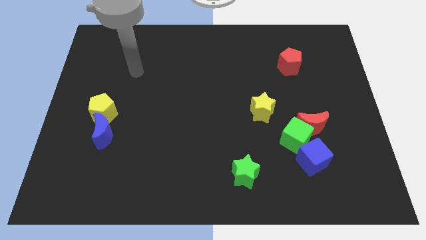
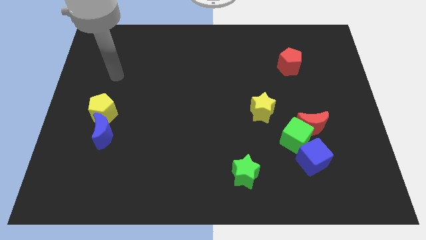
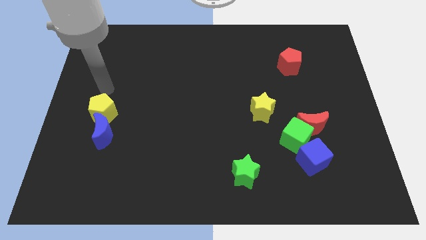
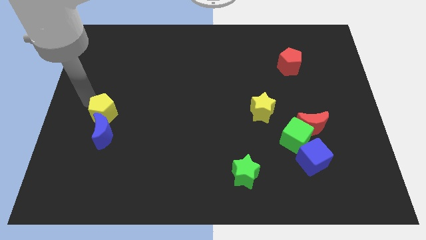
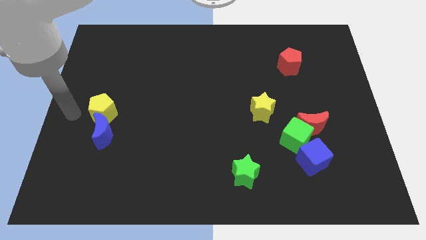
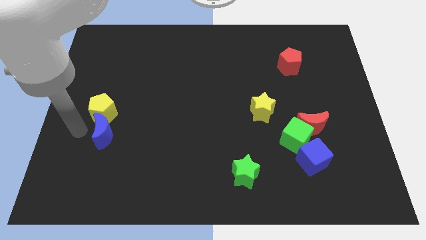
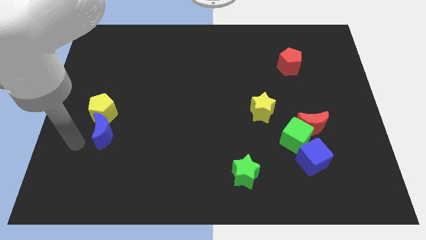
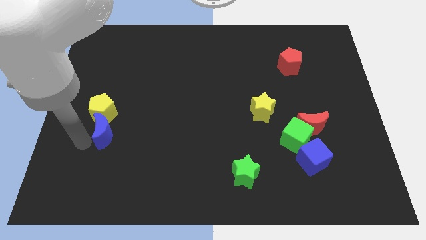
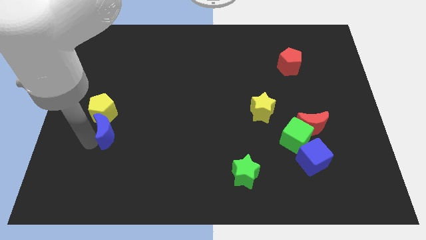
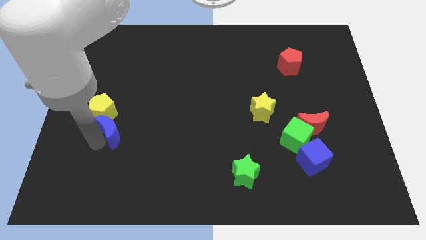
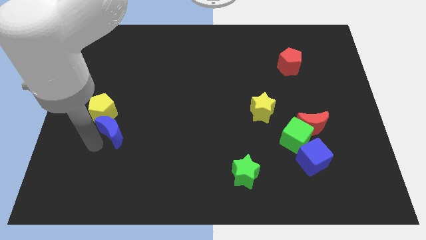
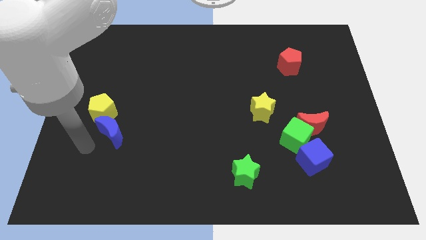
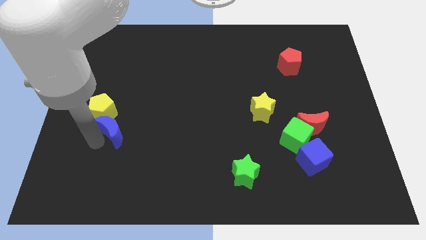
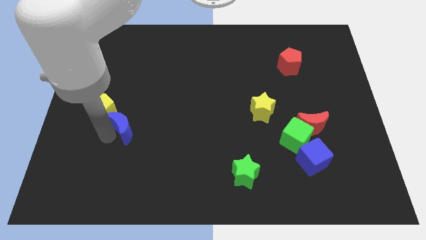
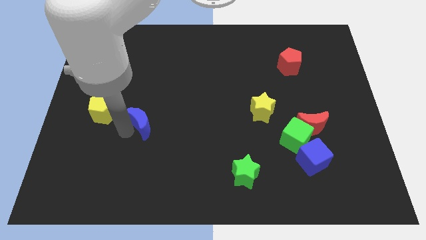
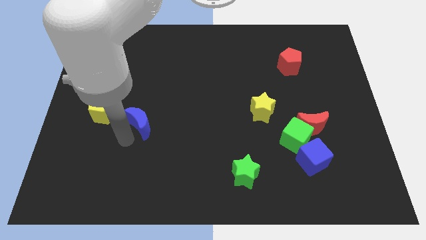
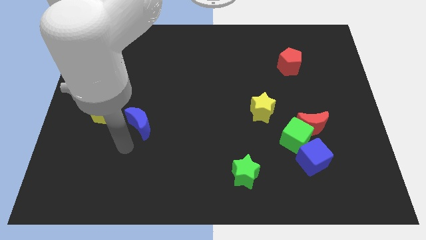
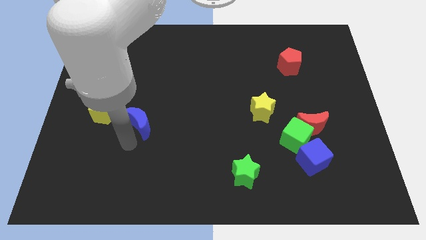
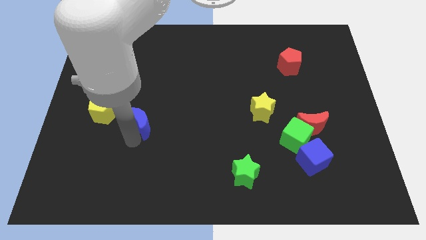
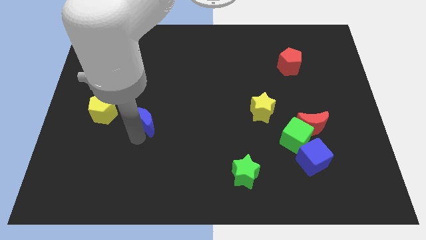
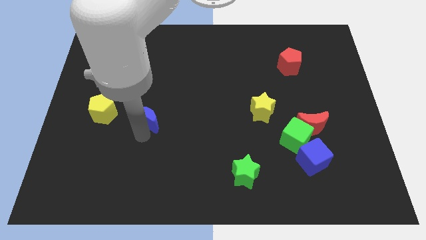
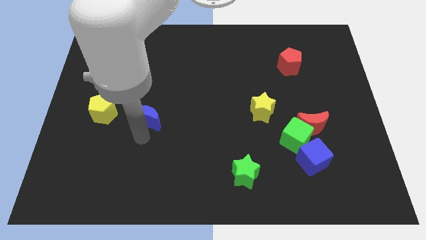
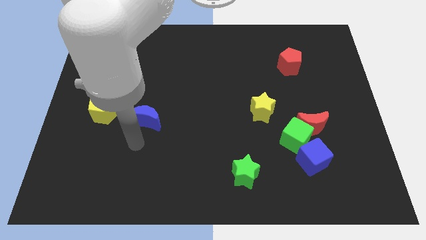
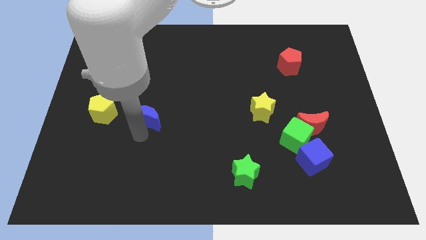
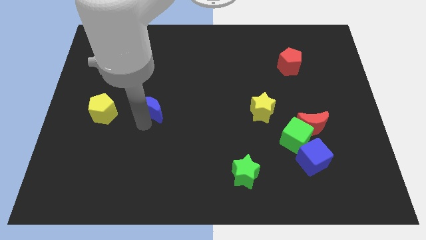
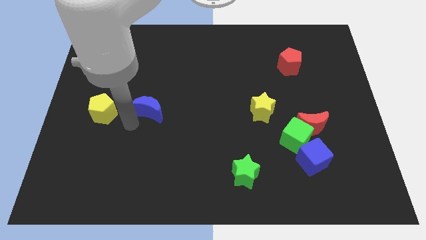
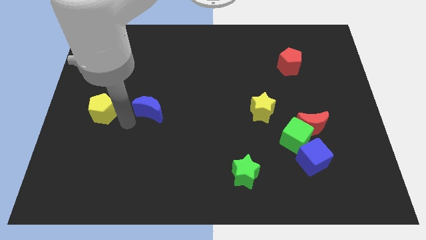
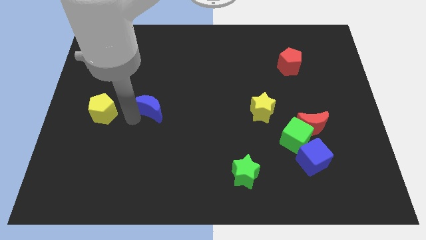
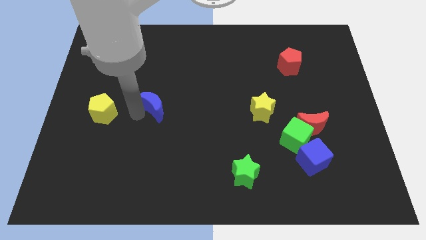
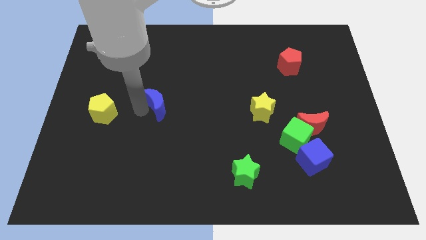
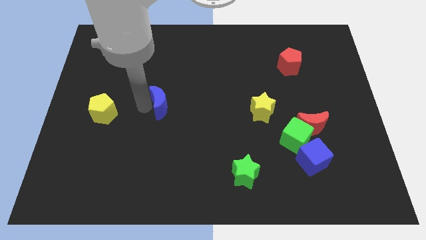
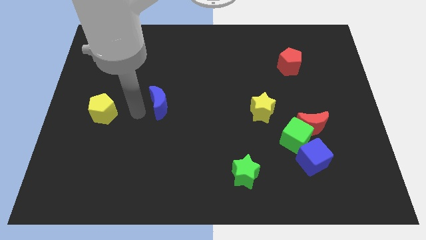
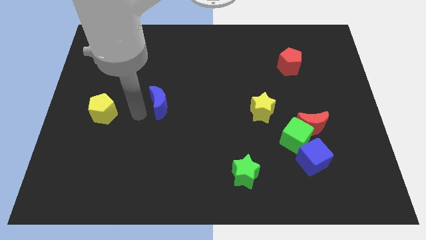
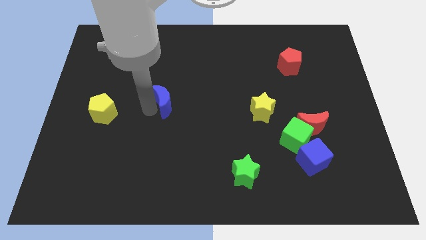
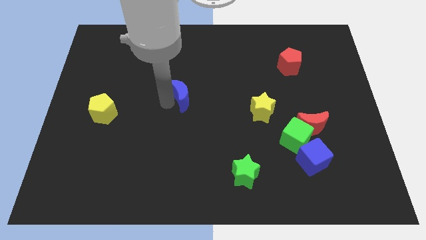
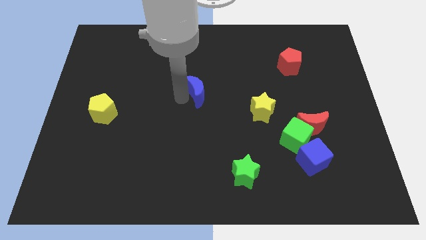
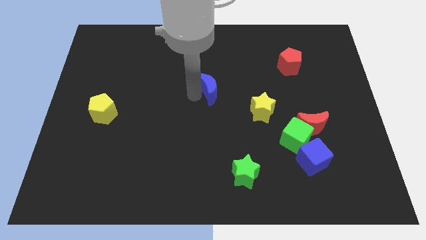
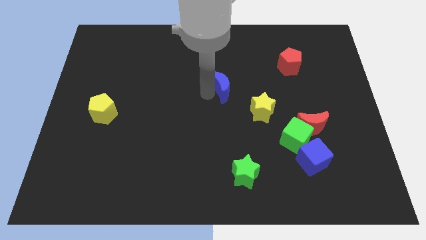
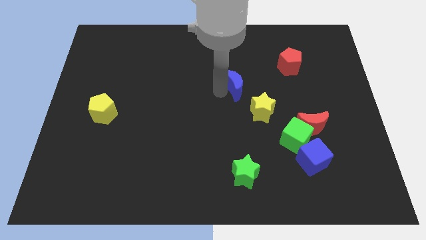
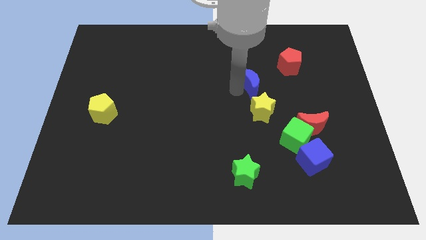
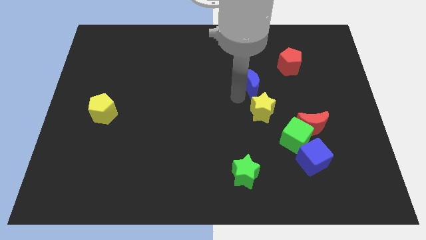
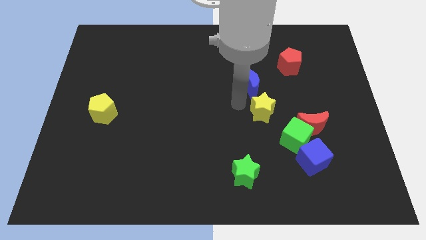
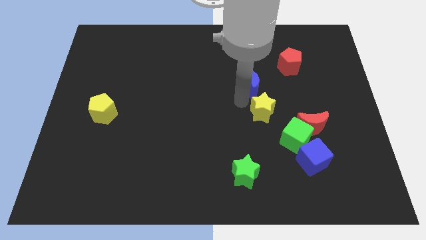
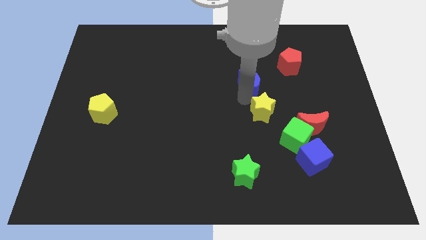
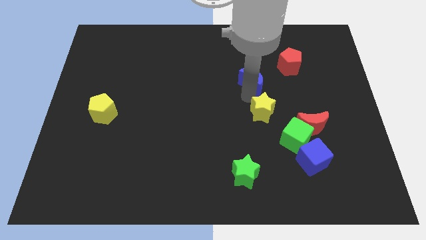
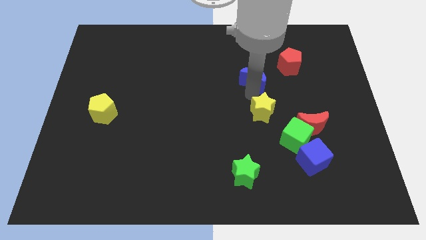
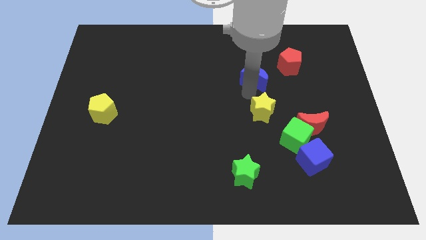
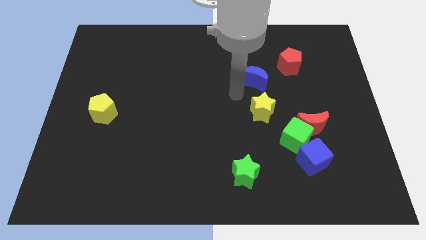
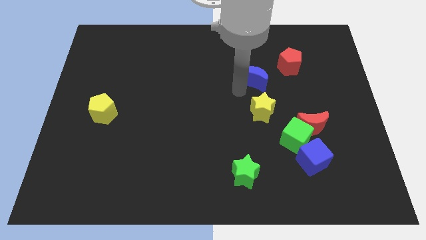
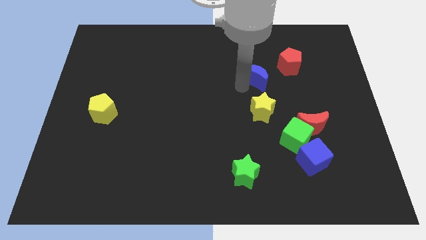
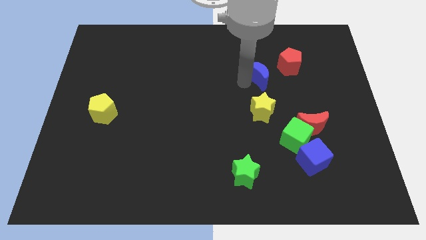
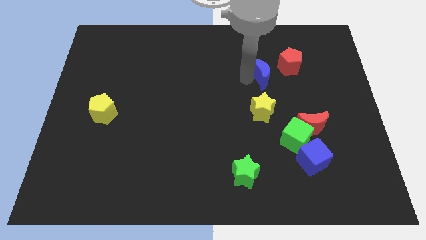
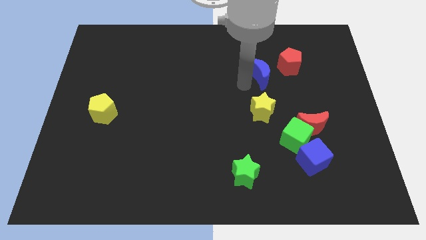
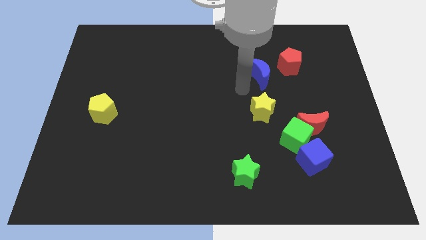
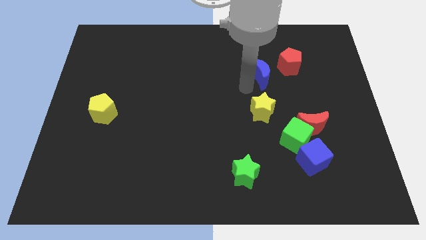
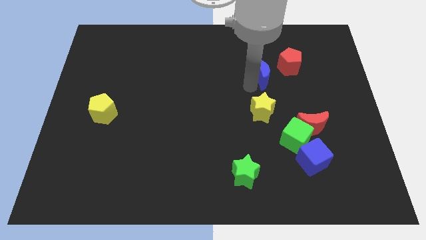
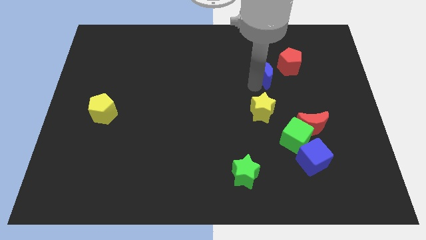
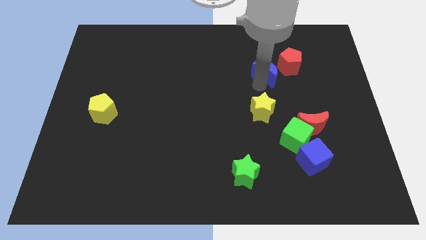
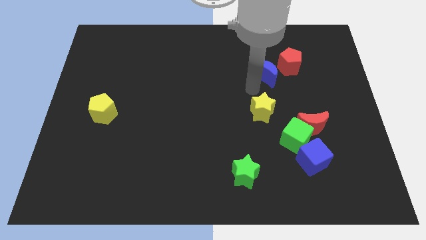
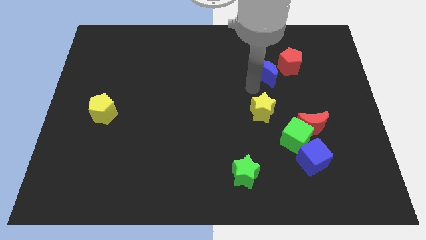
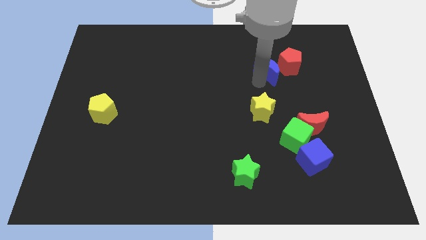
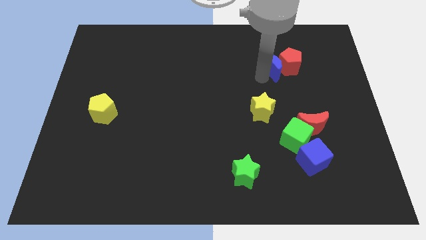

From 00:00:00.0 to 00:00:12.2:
push the blue moon to the red pentagon

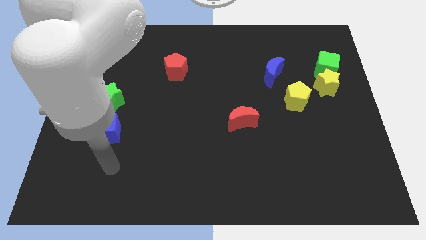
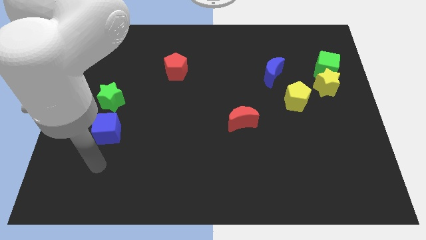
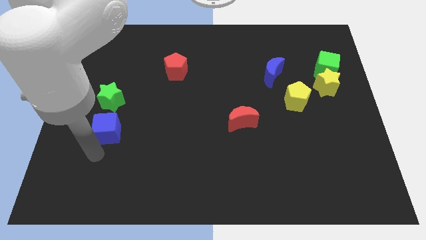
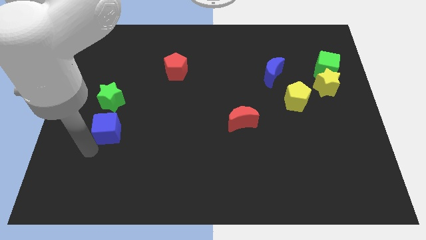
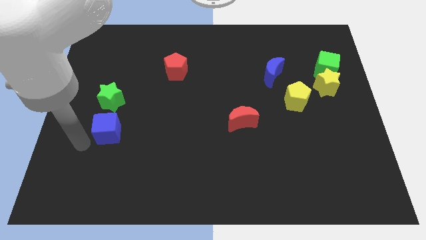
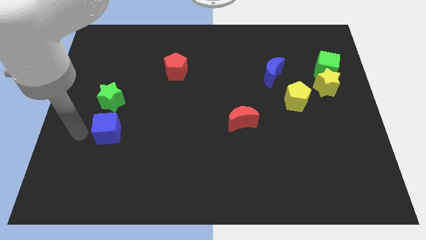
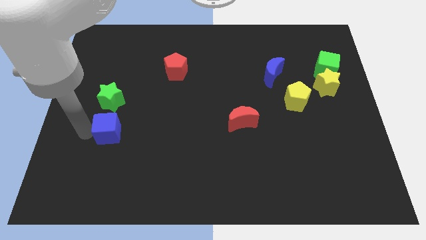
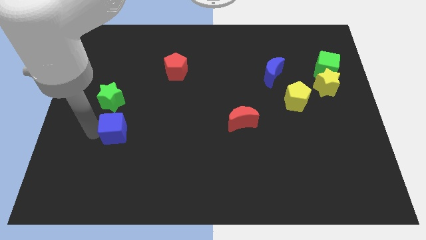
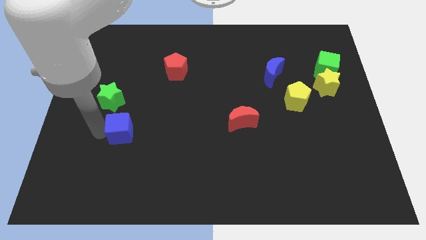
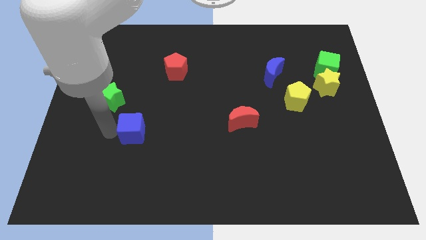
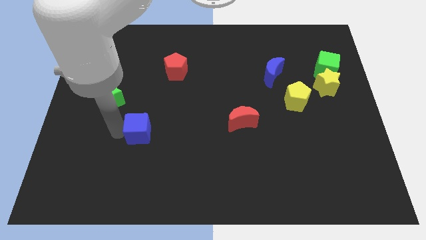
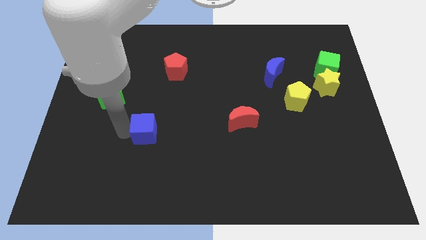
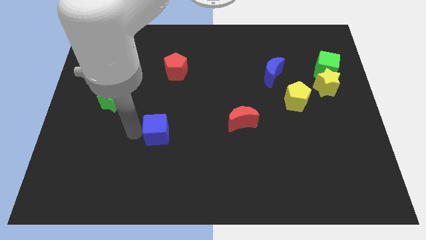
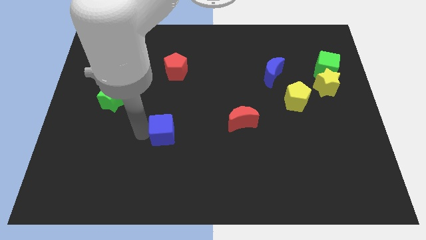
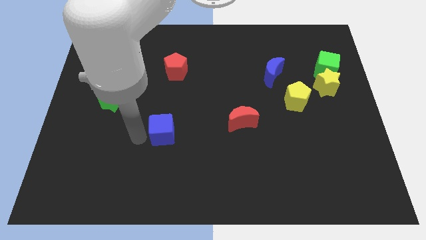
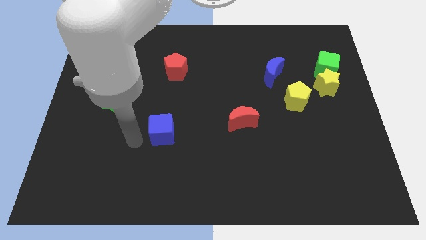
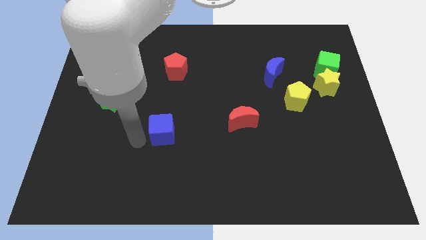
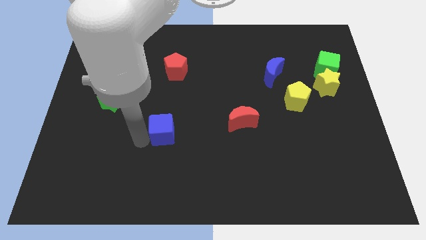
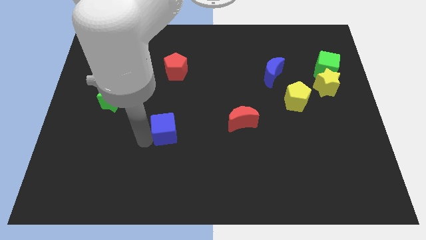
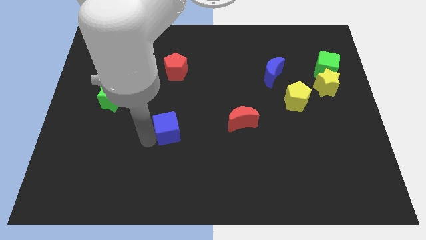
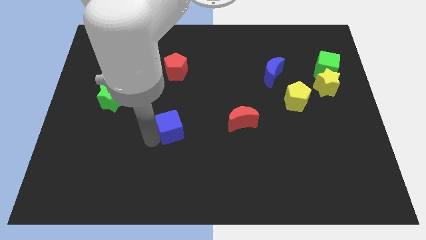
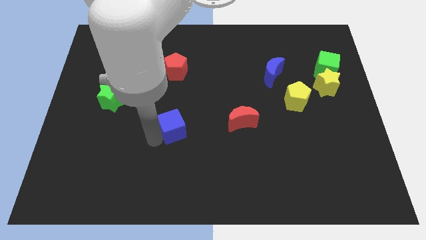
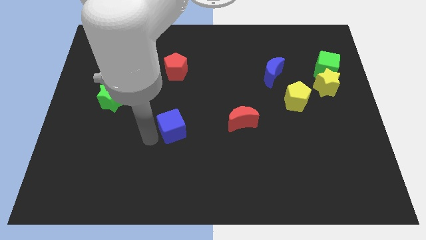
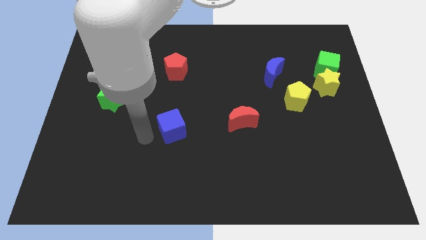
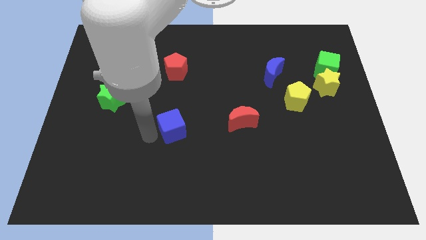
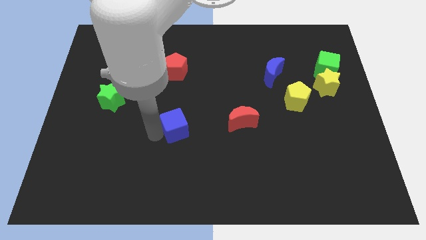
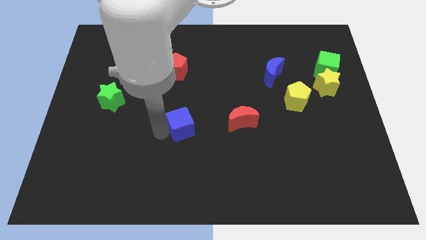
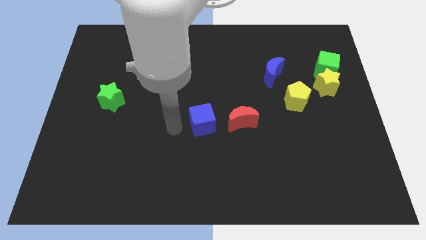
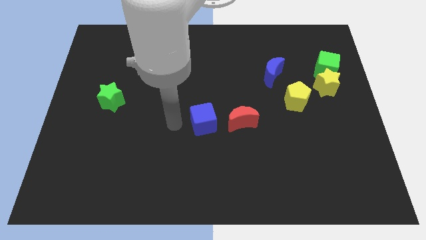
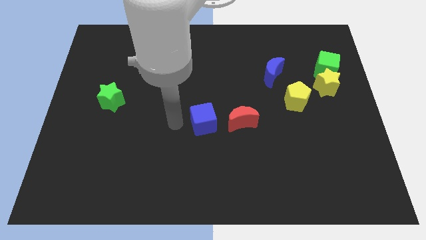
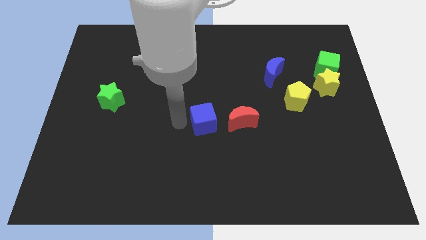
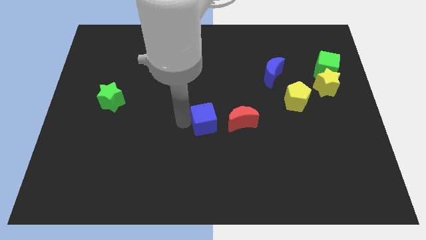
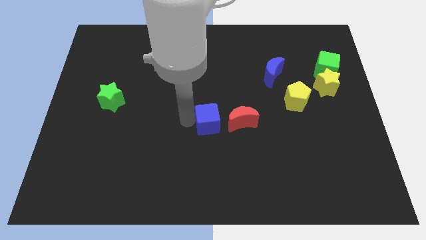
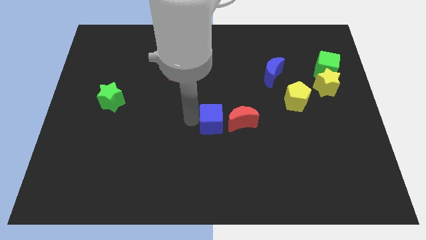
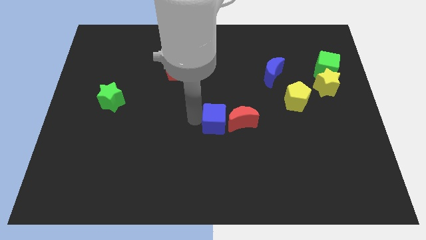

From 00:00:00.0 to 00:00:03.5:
put the blue cube close to the red moon
